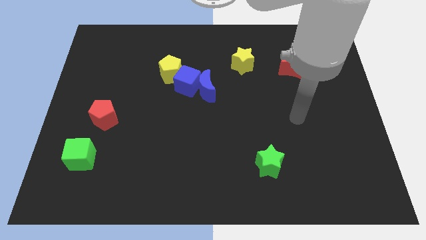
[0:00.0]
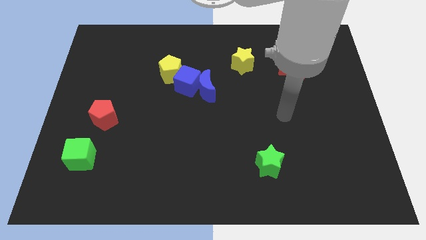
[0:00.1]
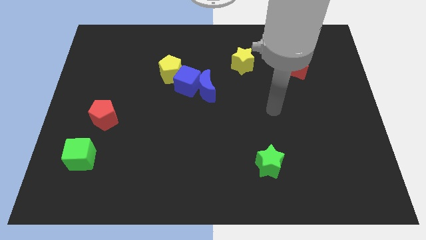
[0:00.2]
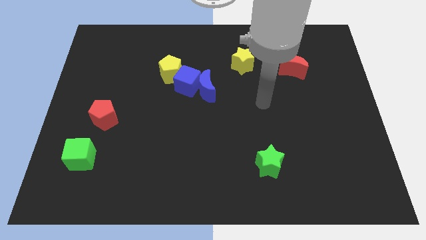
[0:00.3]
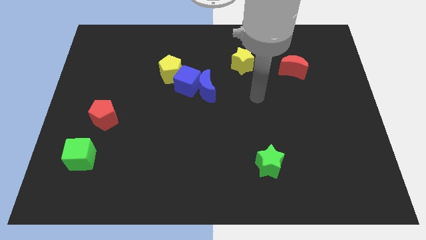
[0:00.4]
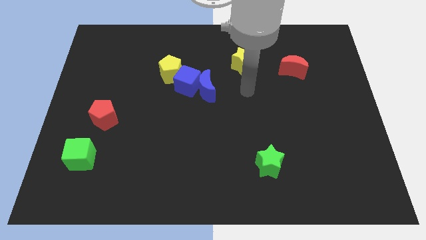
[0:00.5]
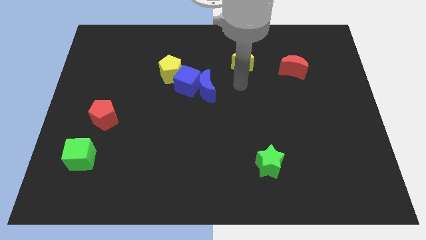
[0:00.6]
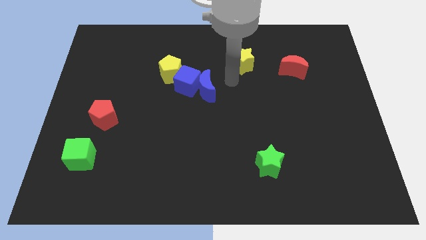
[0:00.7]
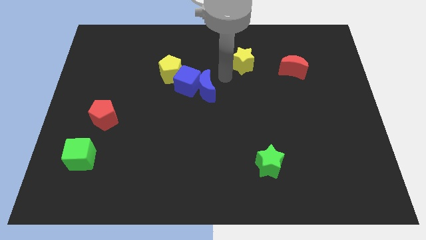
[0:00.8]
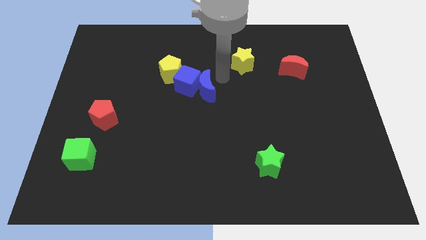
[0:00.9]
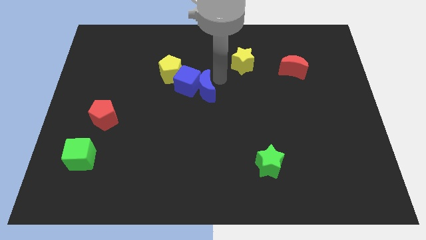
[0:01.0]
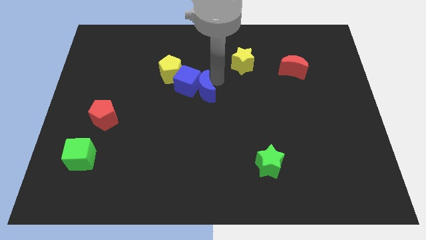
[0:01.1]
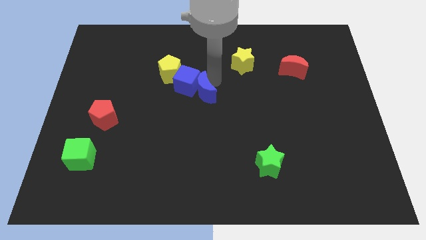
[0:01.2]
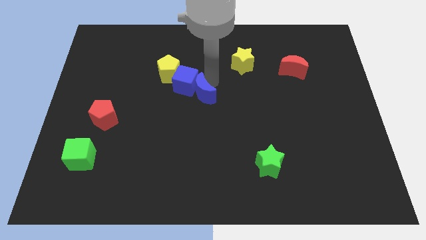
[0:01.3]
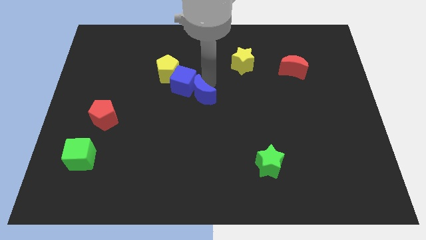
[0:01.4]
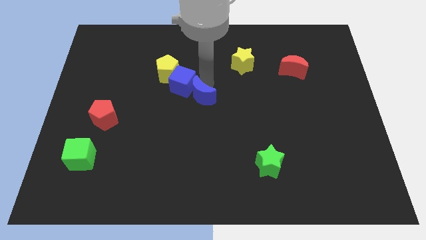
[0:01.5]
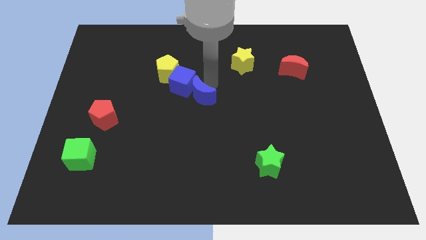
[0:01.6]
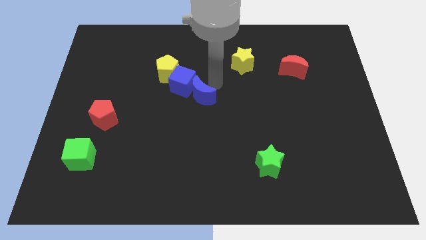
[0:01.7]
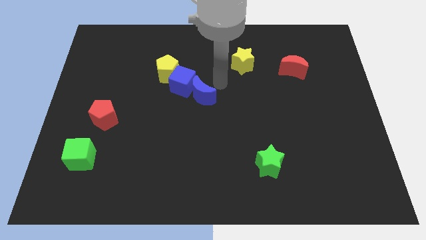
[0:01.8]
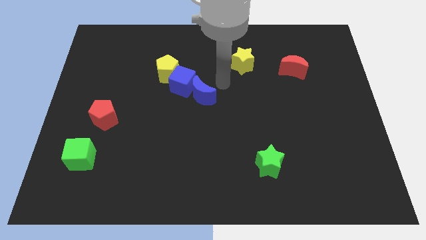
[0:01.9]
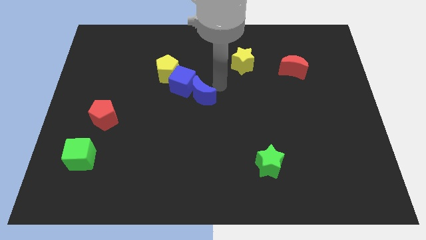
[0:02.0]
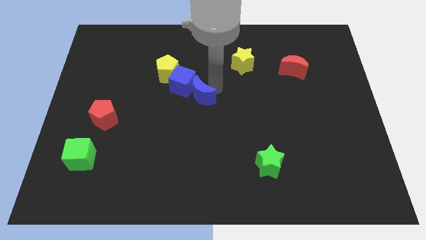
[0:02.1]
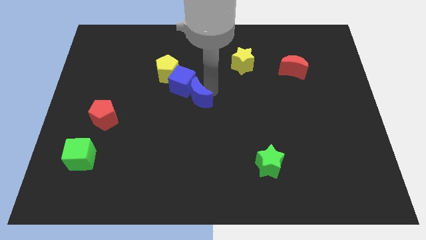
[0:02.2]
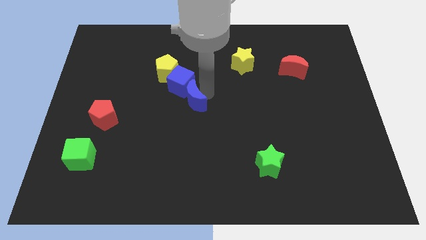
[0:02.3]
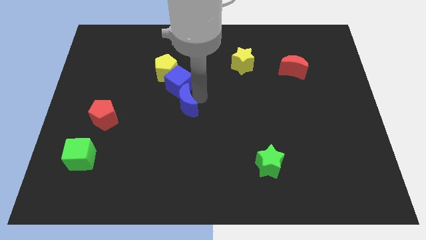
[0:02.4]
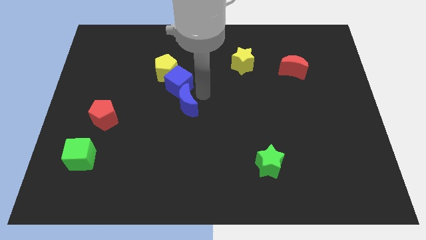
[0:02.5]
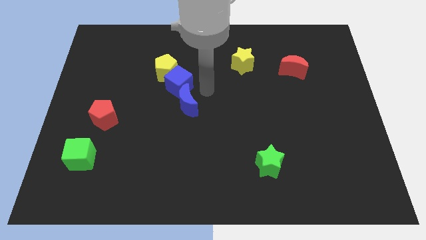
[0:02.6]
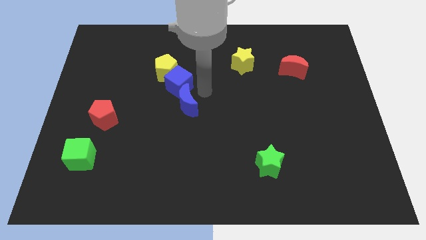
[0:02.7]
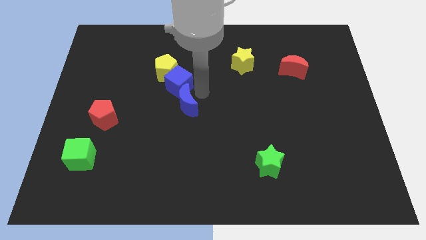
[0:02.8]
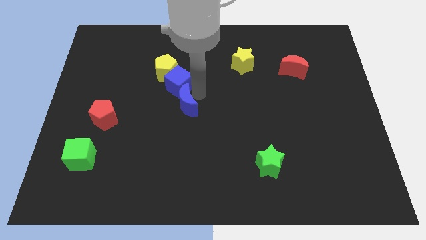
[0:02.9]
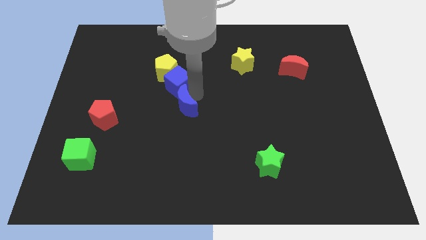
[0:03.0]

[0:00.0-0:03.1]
move the blue moon a bit downwards and left

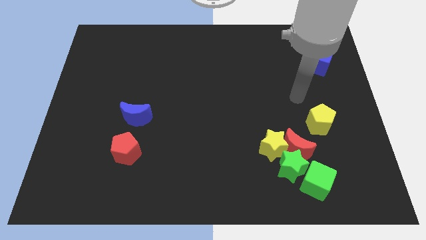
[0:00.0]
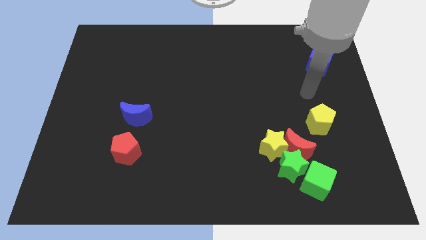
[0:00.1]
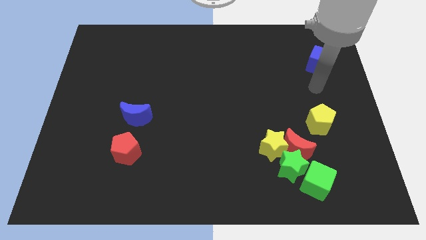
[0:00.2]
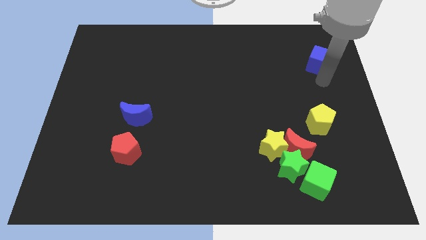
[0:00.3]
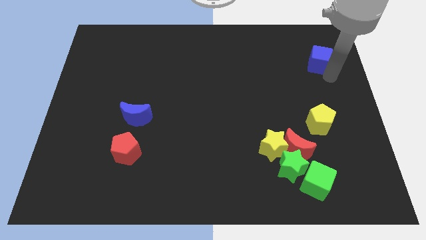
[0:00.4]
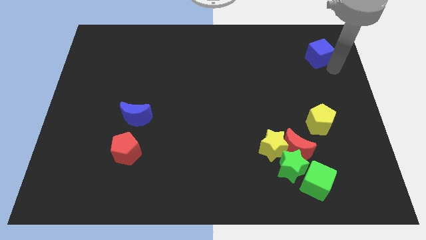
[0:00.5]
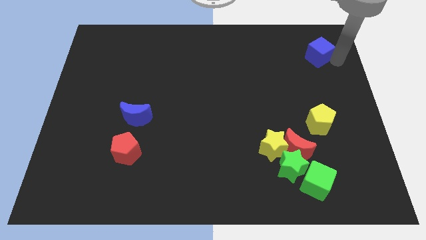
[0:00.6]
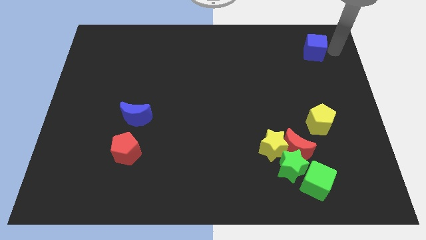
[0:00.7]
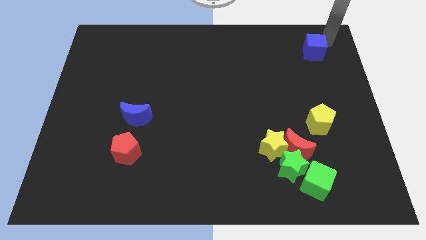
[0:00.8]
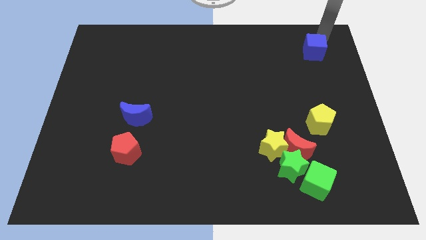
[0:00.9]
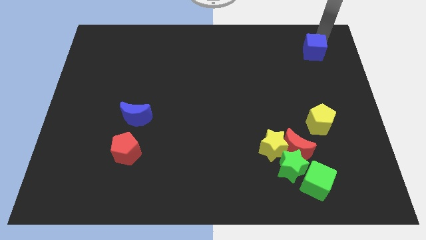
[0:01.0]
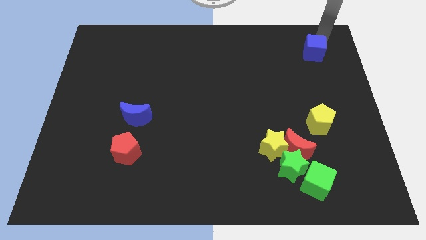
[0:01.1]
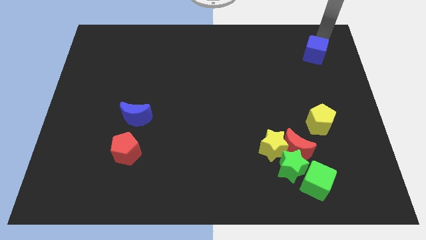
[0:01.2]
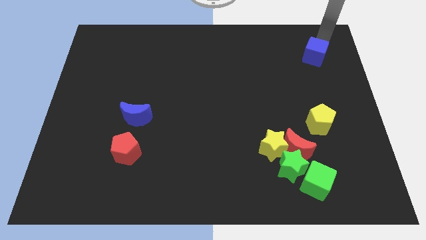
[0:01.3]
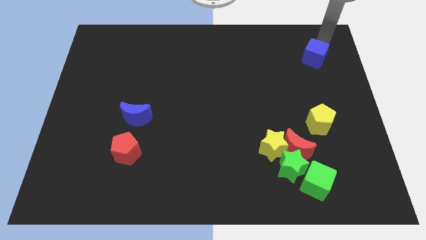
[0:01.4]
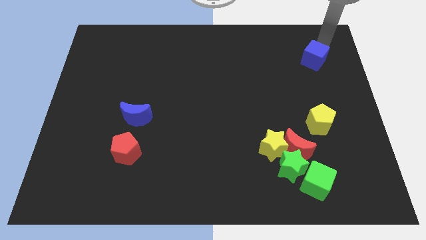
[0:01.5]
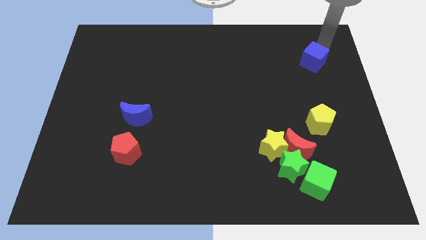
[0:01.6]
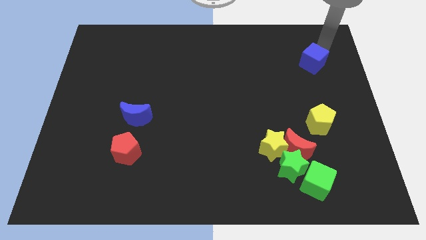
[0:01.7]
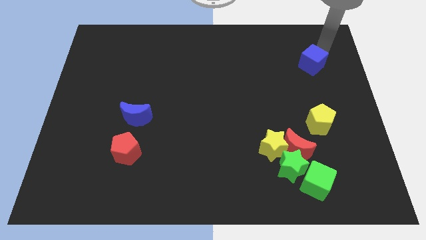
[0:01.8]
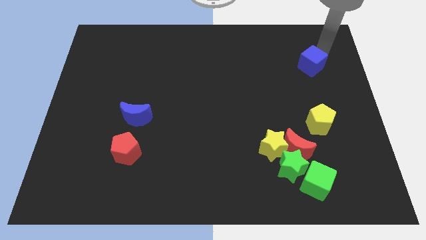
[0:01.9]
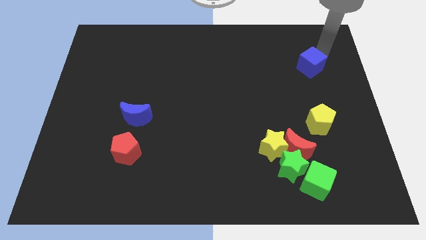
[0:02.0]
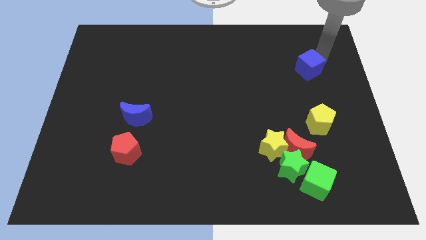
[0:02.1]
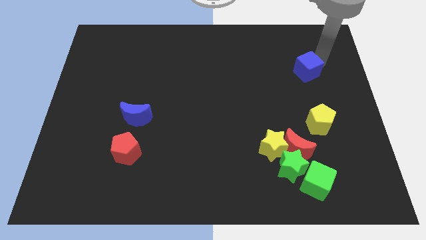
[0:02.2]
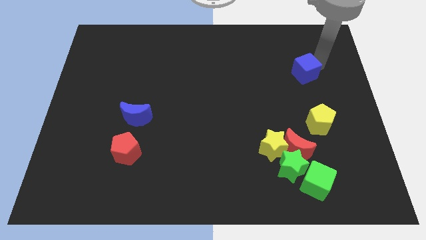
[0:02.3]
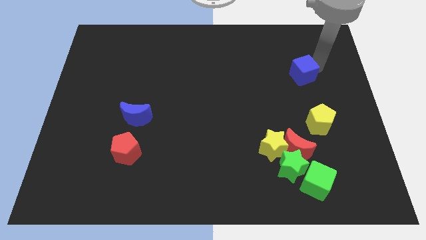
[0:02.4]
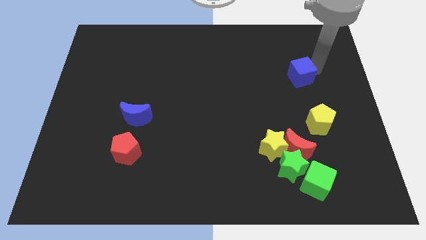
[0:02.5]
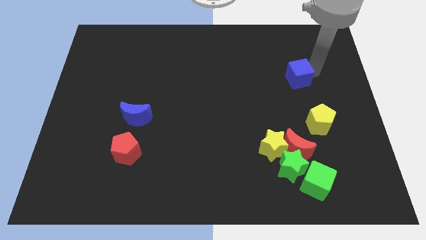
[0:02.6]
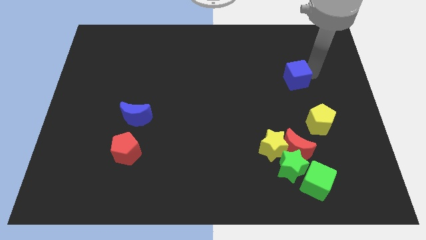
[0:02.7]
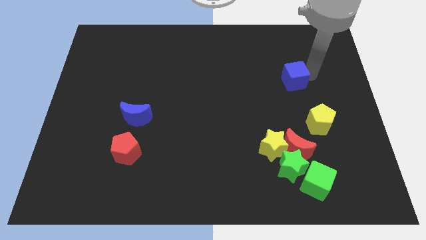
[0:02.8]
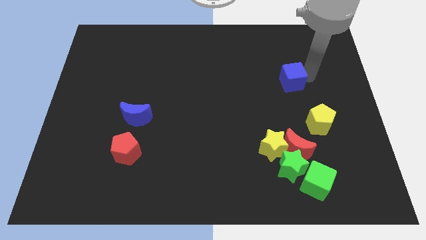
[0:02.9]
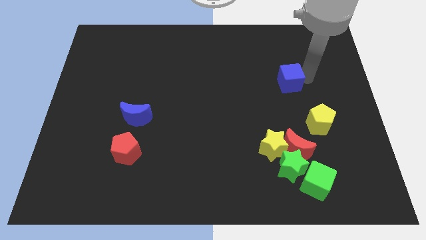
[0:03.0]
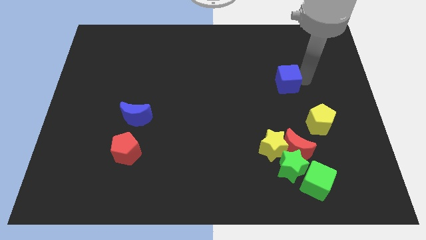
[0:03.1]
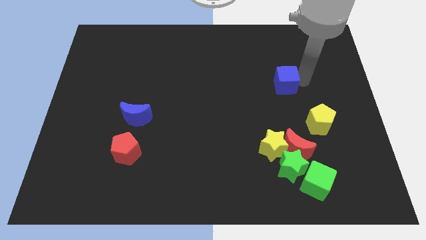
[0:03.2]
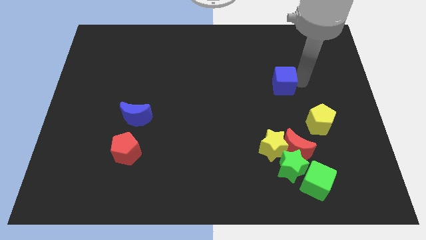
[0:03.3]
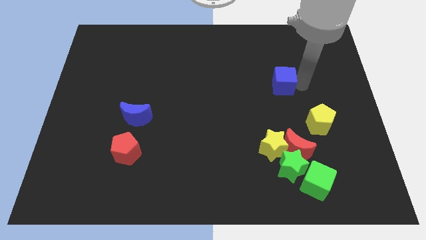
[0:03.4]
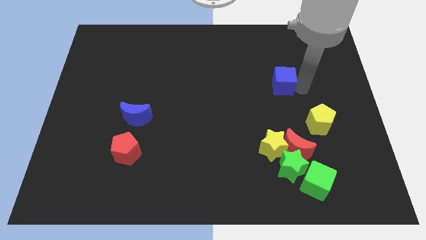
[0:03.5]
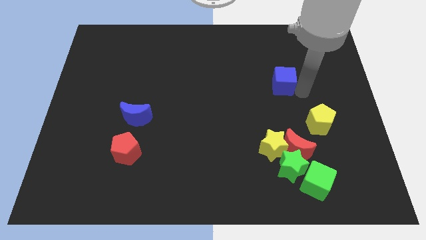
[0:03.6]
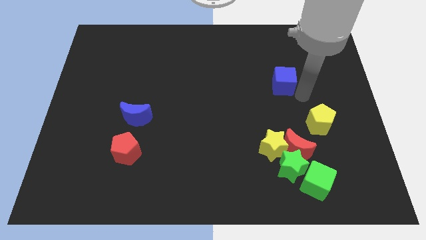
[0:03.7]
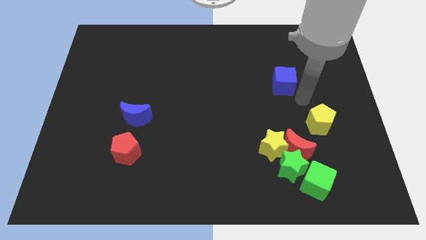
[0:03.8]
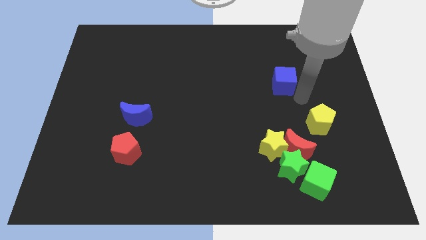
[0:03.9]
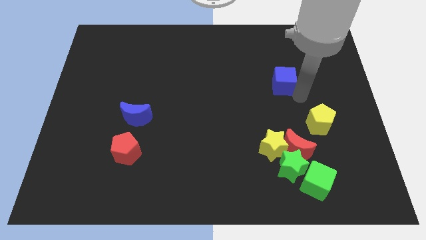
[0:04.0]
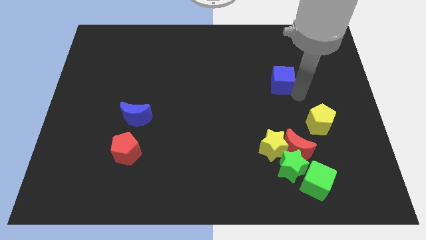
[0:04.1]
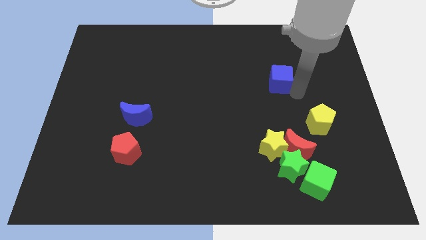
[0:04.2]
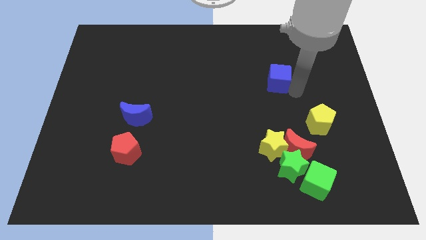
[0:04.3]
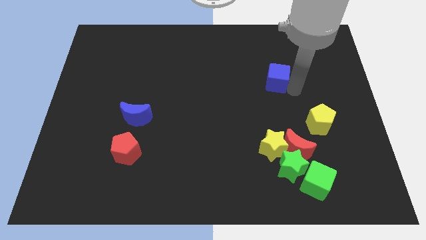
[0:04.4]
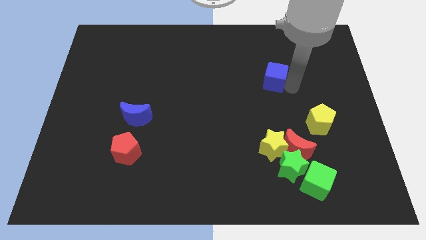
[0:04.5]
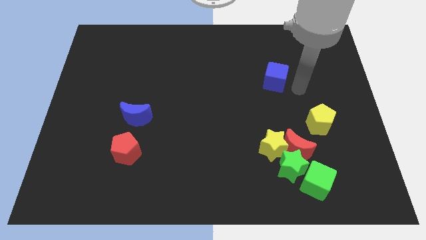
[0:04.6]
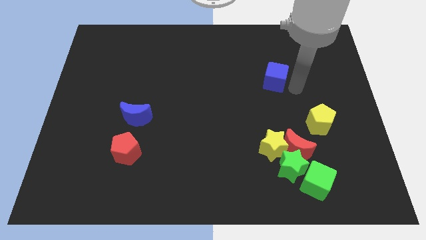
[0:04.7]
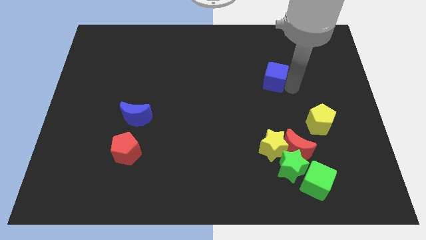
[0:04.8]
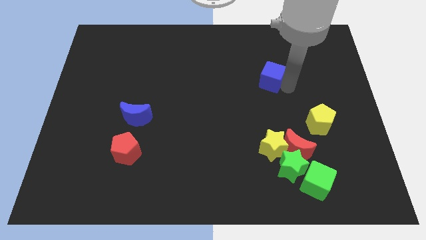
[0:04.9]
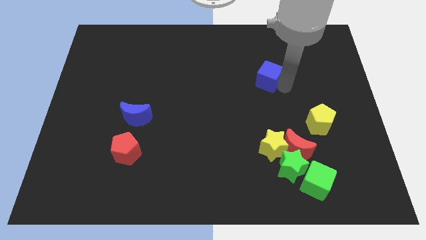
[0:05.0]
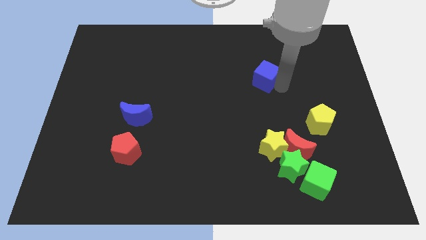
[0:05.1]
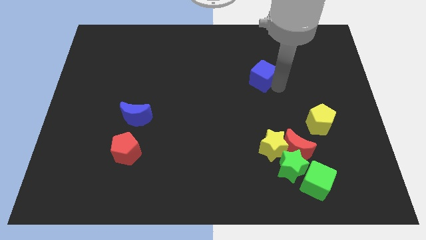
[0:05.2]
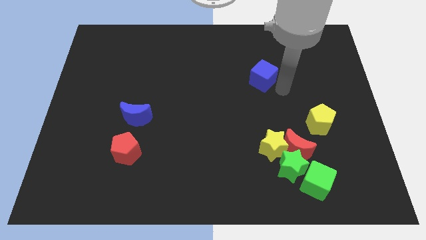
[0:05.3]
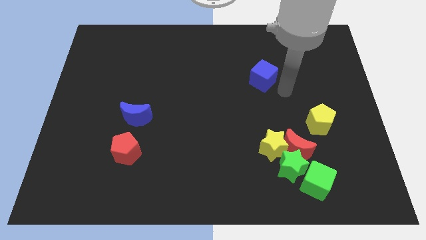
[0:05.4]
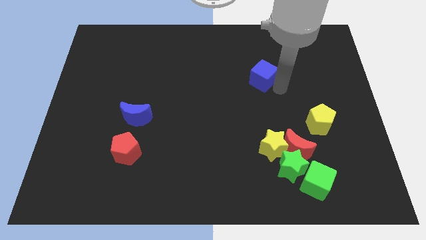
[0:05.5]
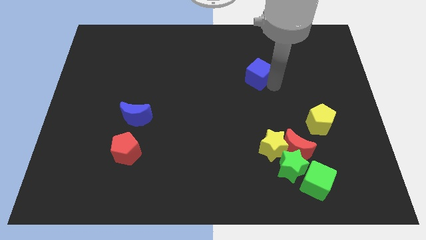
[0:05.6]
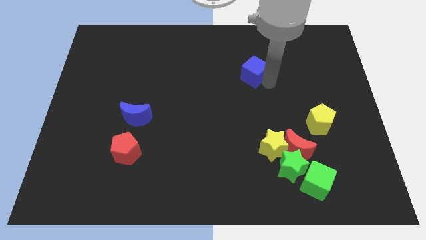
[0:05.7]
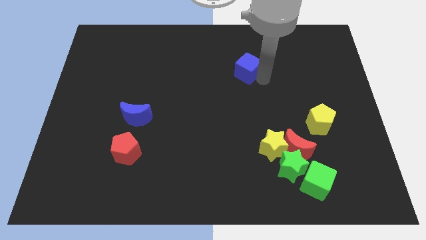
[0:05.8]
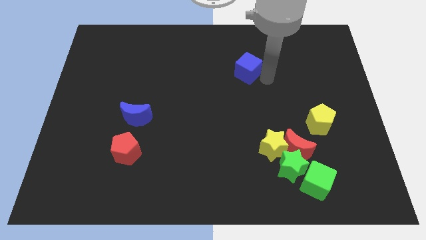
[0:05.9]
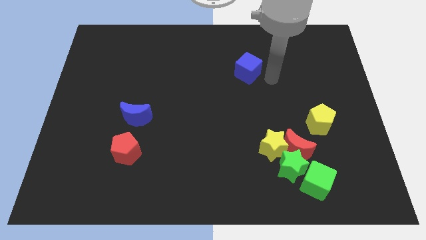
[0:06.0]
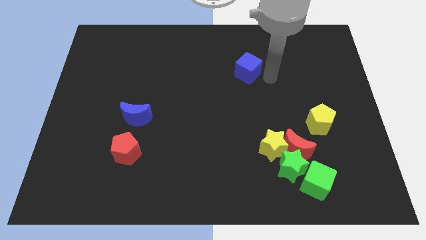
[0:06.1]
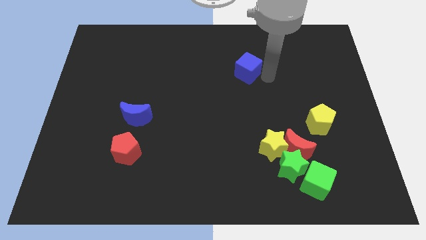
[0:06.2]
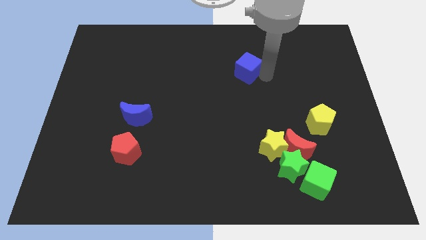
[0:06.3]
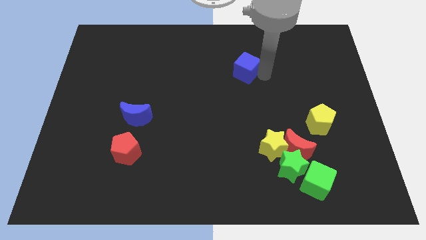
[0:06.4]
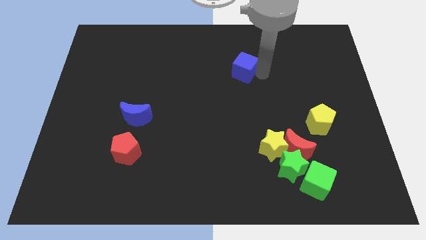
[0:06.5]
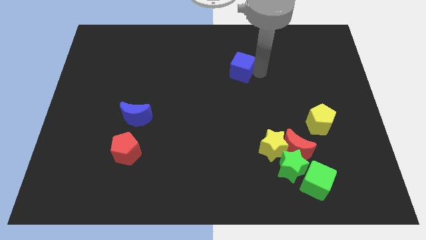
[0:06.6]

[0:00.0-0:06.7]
move the blue cube left
